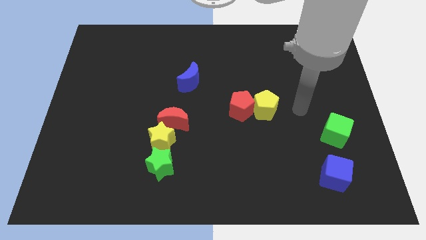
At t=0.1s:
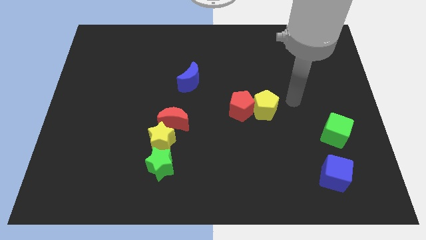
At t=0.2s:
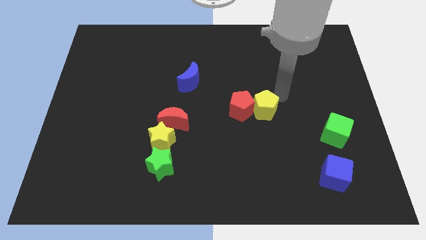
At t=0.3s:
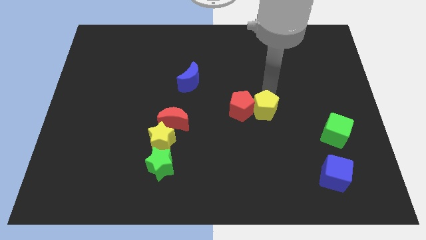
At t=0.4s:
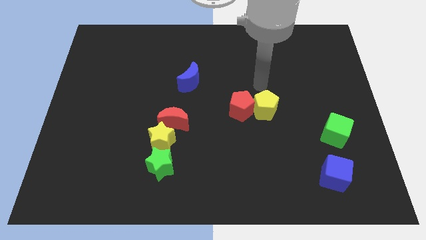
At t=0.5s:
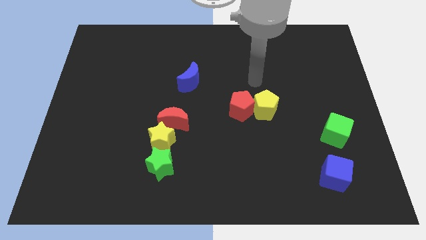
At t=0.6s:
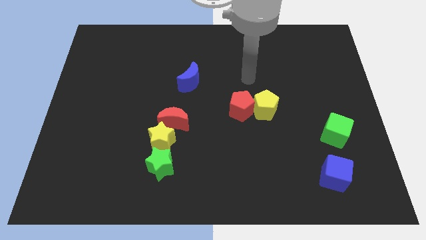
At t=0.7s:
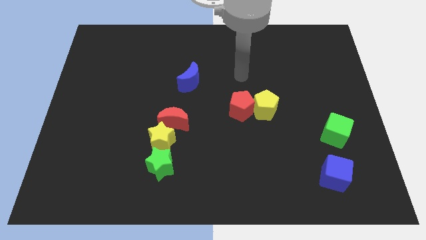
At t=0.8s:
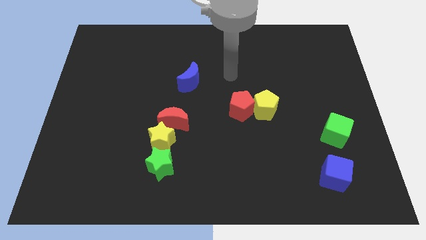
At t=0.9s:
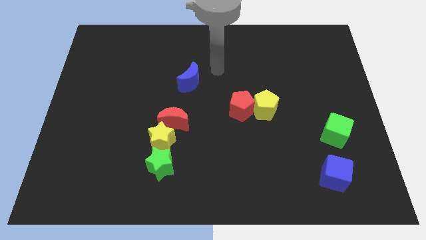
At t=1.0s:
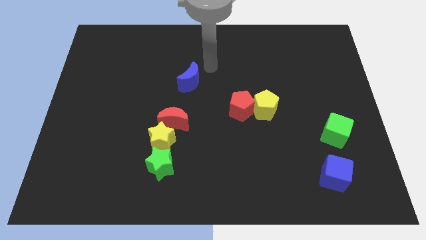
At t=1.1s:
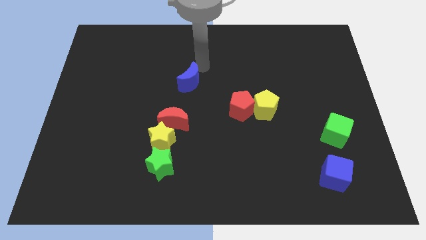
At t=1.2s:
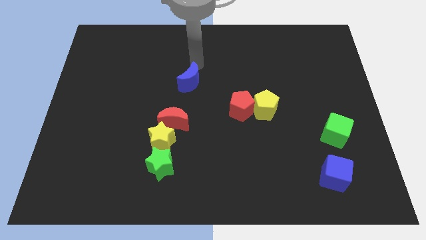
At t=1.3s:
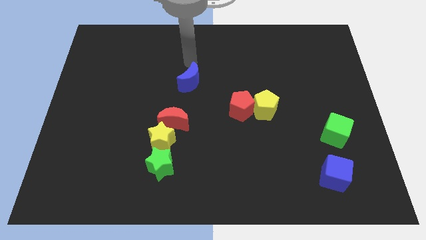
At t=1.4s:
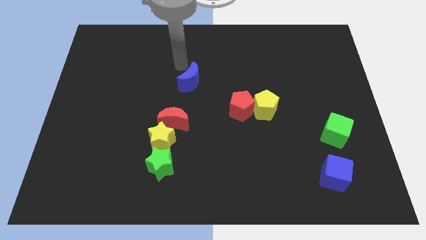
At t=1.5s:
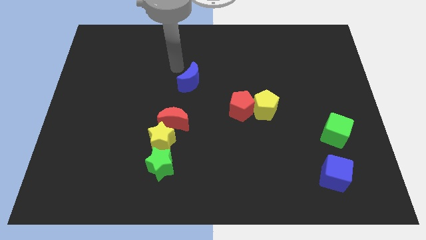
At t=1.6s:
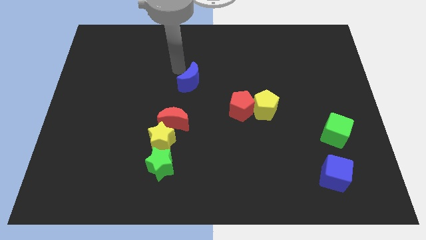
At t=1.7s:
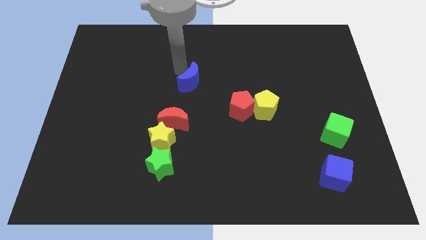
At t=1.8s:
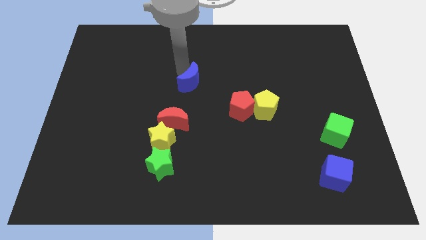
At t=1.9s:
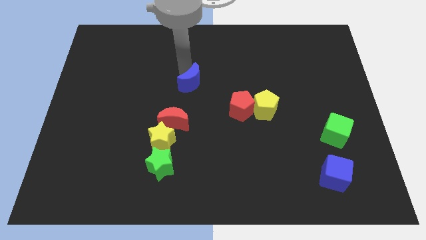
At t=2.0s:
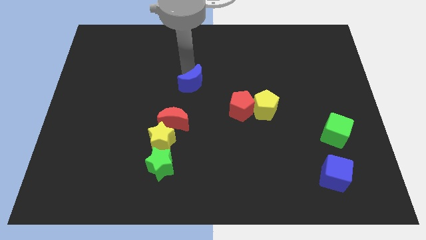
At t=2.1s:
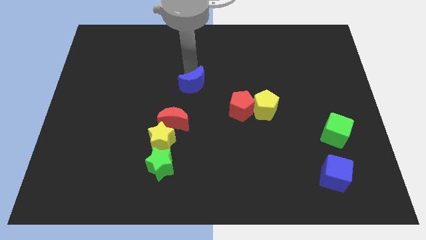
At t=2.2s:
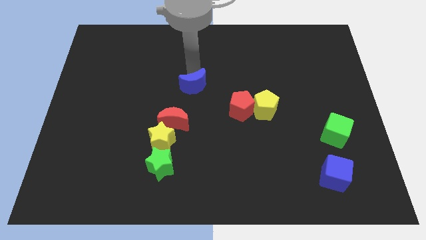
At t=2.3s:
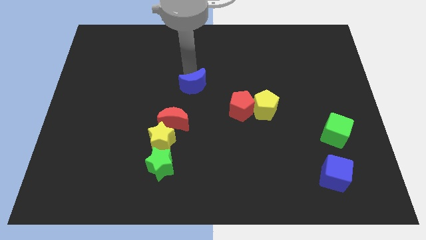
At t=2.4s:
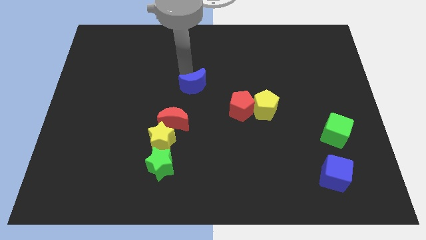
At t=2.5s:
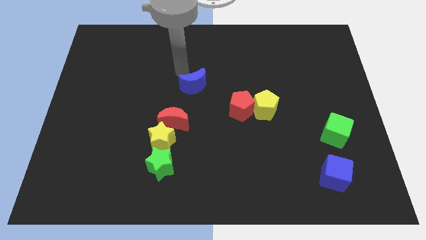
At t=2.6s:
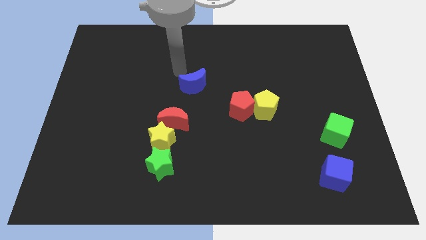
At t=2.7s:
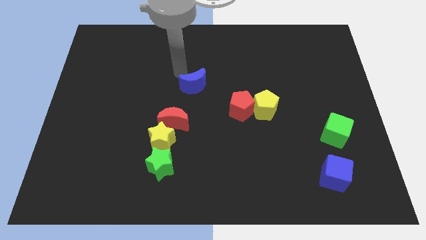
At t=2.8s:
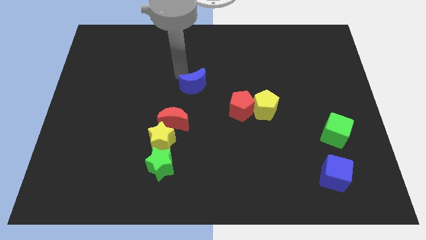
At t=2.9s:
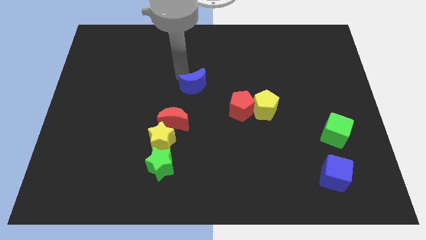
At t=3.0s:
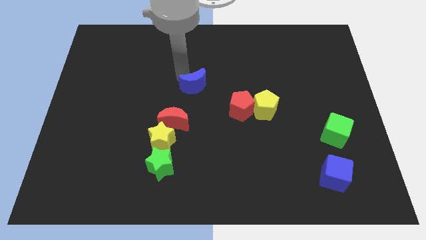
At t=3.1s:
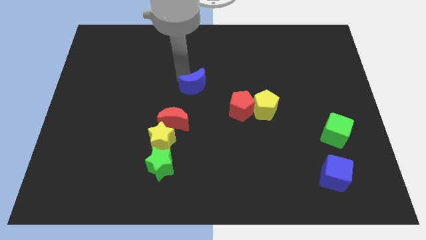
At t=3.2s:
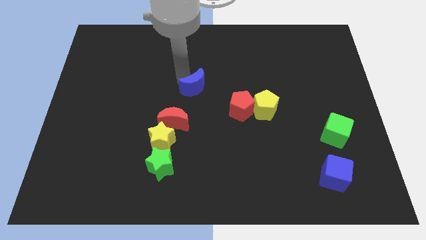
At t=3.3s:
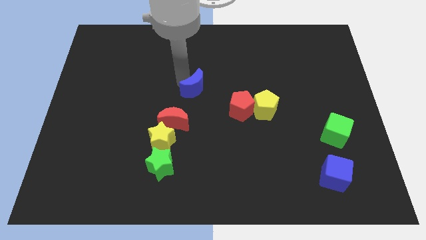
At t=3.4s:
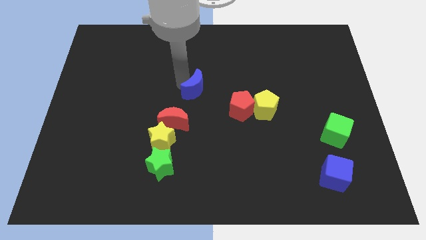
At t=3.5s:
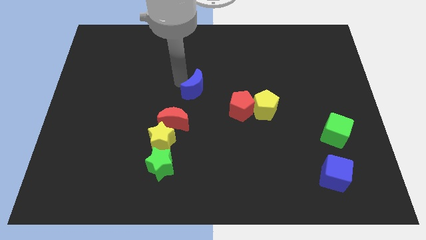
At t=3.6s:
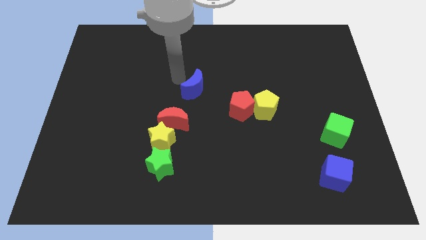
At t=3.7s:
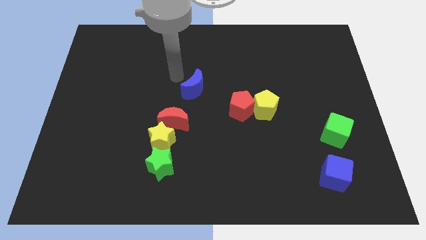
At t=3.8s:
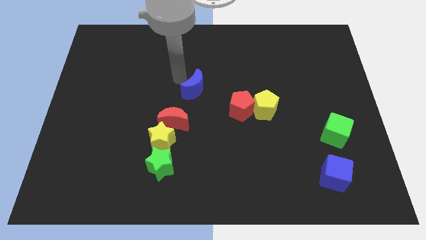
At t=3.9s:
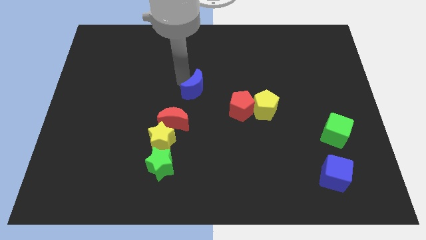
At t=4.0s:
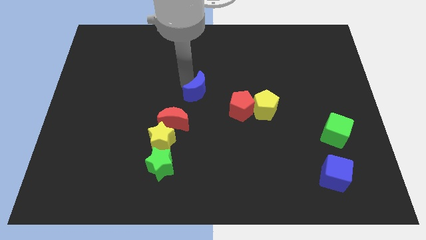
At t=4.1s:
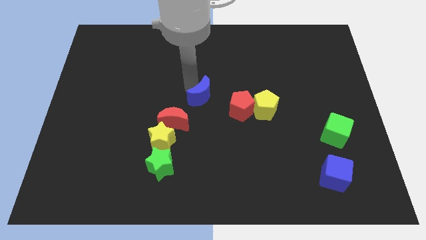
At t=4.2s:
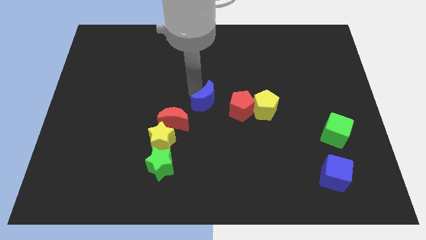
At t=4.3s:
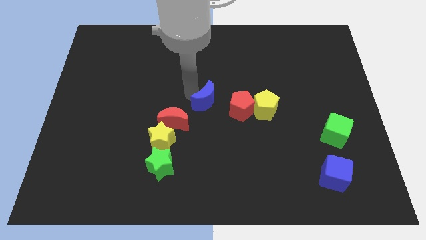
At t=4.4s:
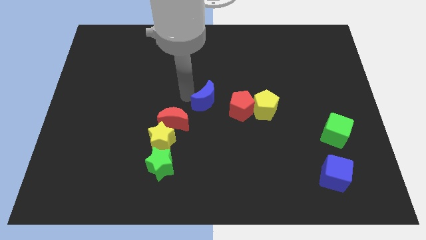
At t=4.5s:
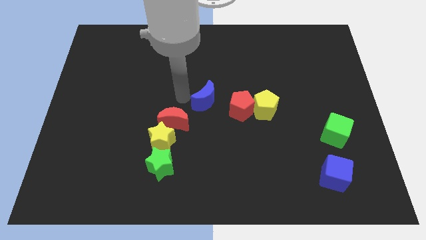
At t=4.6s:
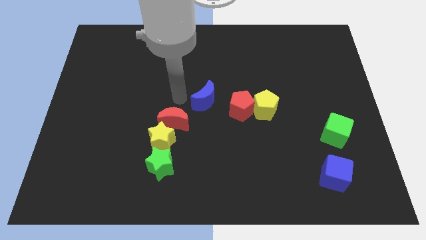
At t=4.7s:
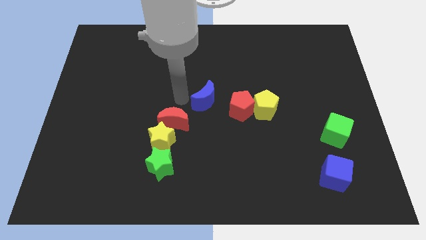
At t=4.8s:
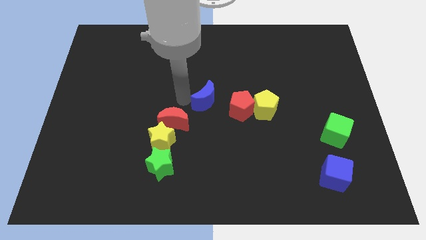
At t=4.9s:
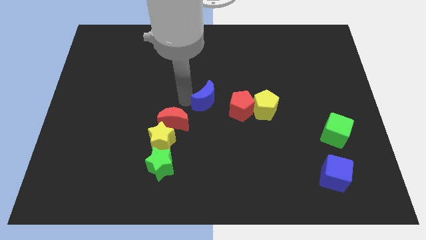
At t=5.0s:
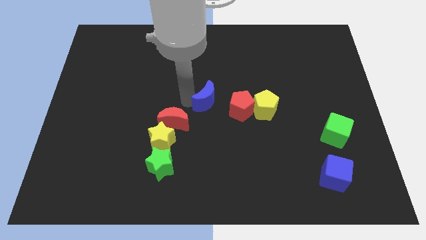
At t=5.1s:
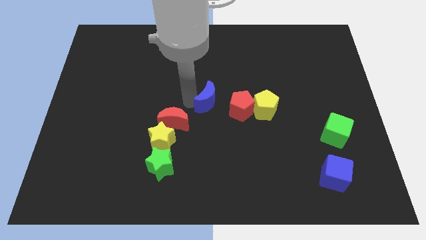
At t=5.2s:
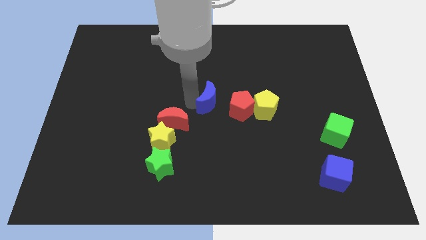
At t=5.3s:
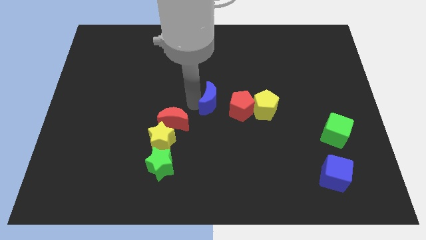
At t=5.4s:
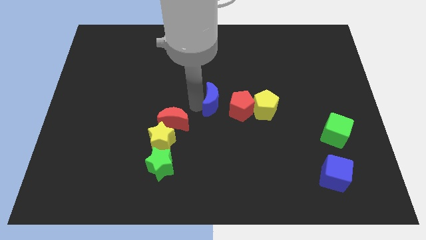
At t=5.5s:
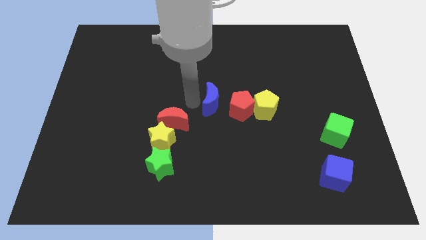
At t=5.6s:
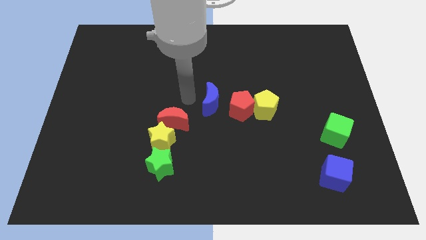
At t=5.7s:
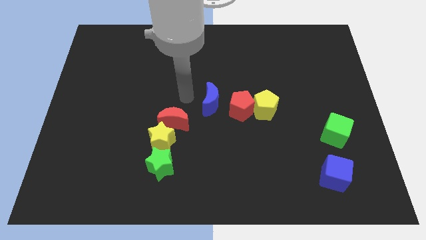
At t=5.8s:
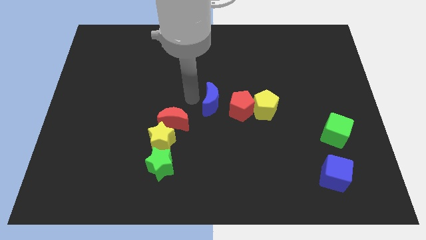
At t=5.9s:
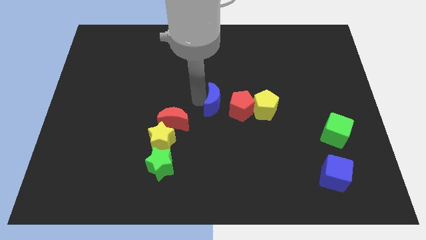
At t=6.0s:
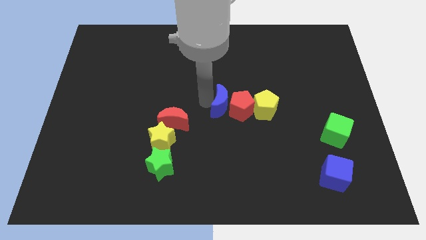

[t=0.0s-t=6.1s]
move the blue moon towards the red pentagon

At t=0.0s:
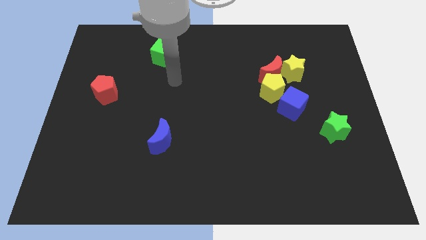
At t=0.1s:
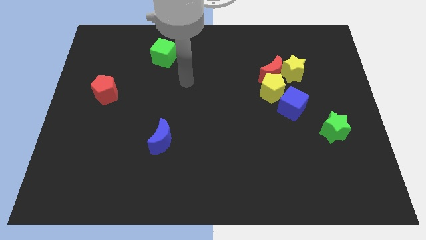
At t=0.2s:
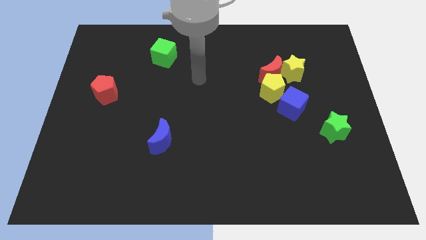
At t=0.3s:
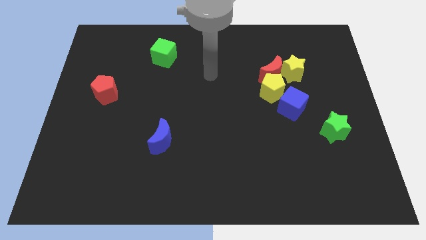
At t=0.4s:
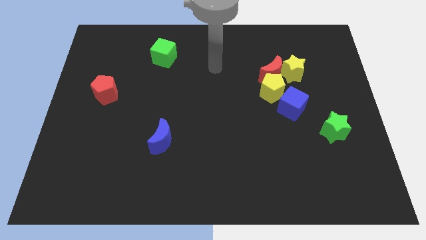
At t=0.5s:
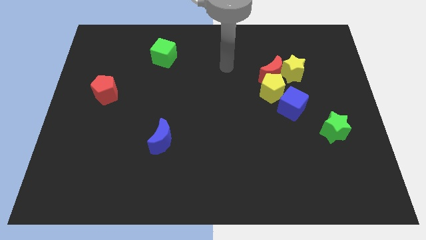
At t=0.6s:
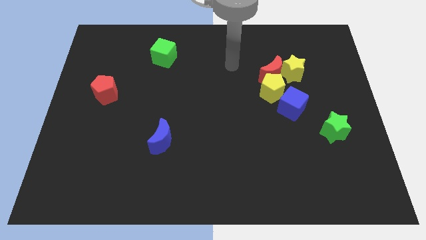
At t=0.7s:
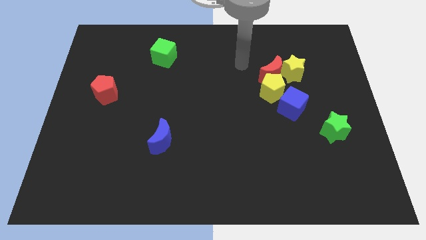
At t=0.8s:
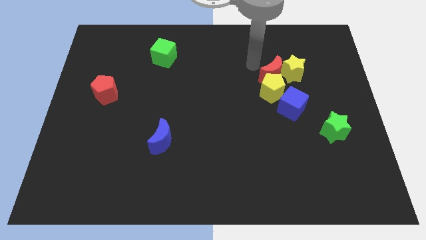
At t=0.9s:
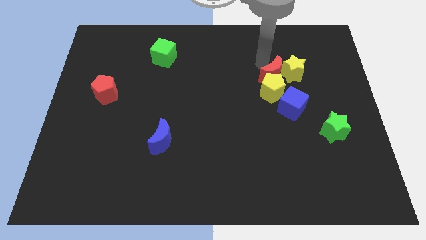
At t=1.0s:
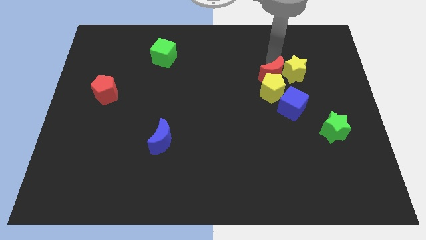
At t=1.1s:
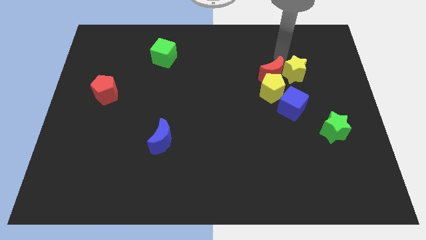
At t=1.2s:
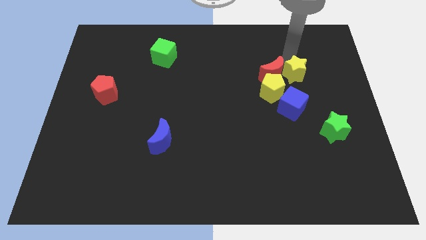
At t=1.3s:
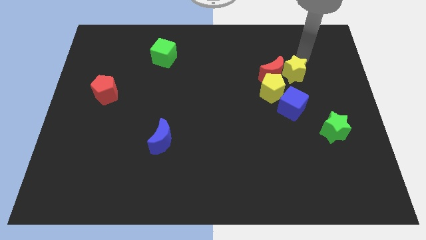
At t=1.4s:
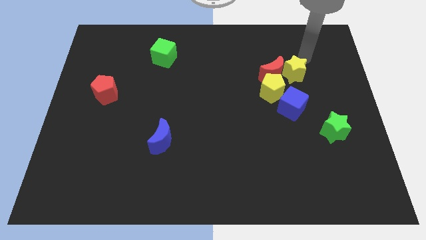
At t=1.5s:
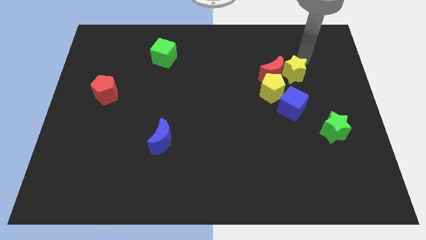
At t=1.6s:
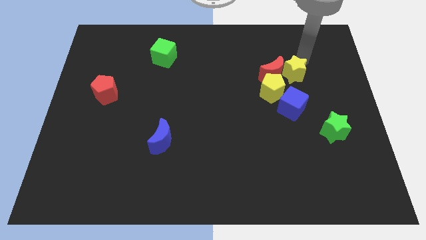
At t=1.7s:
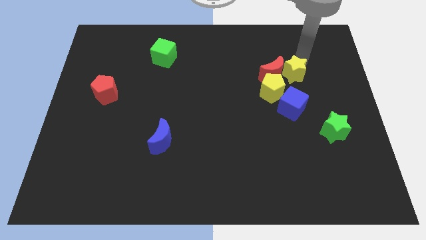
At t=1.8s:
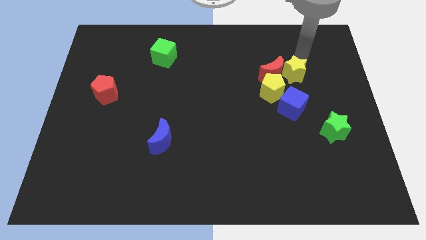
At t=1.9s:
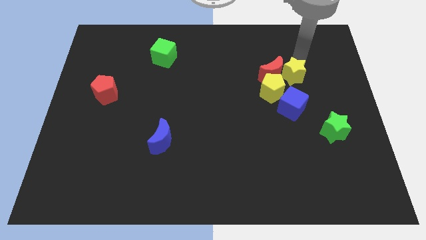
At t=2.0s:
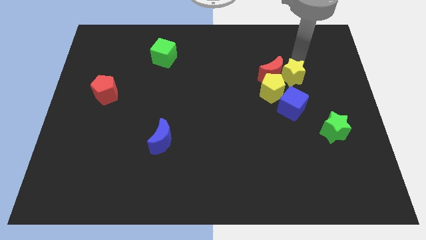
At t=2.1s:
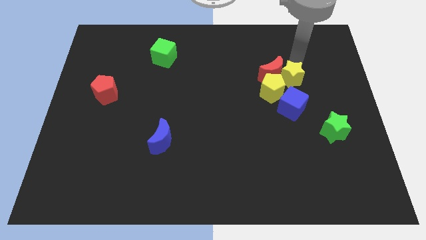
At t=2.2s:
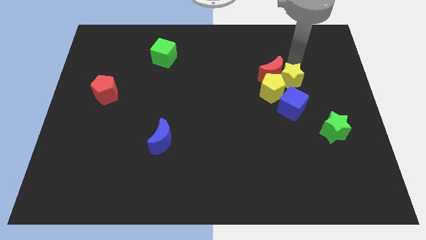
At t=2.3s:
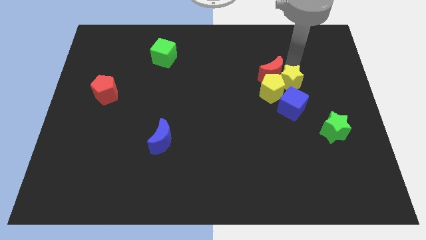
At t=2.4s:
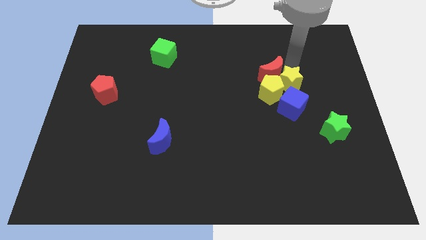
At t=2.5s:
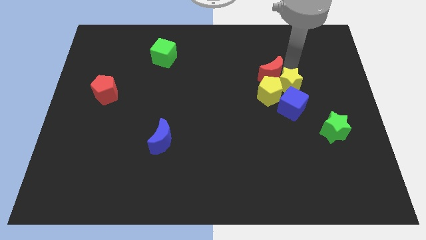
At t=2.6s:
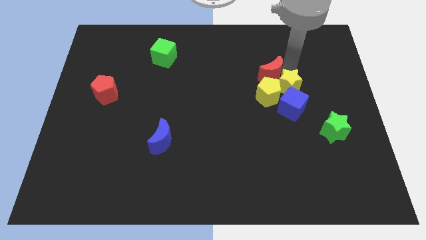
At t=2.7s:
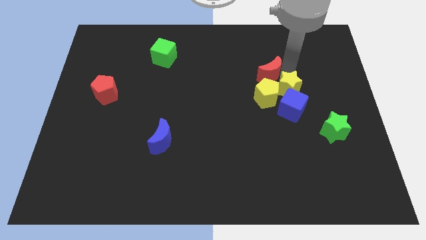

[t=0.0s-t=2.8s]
slide the yellow star next to the blue cube
